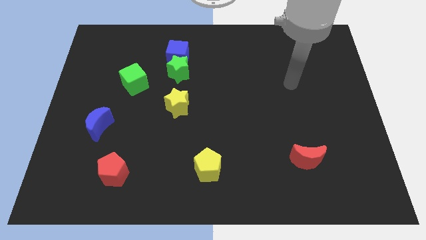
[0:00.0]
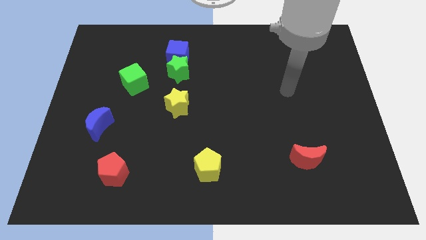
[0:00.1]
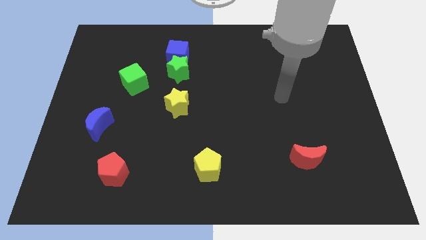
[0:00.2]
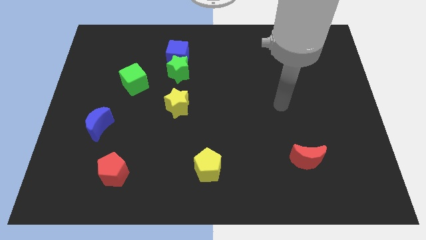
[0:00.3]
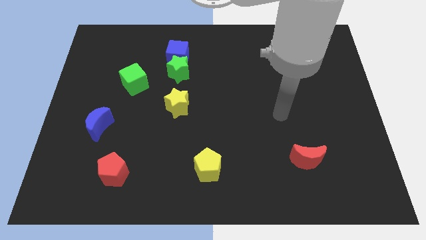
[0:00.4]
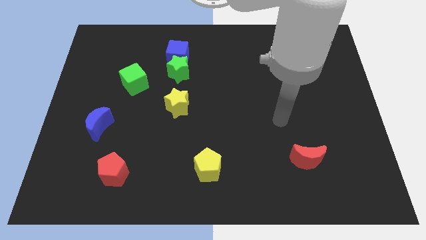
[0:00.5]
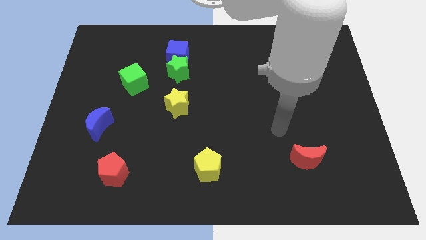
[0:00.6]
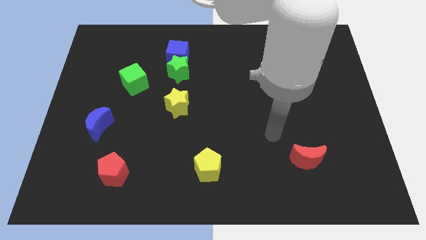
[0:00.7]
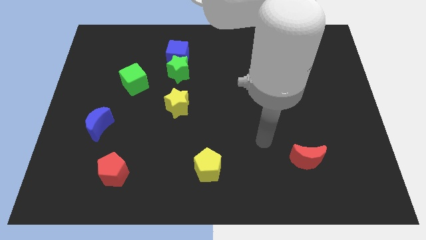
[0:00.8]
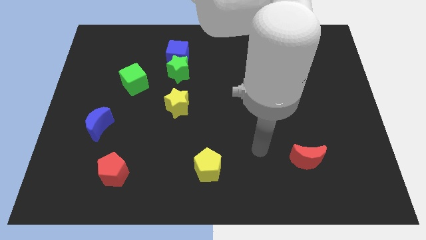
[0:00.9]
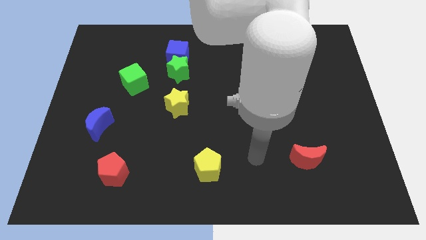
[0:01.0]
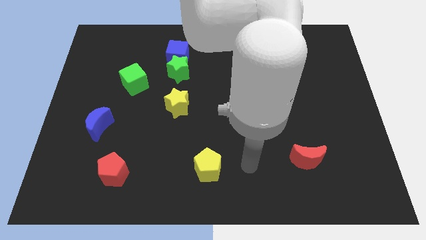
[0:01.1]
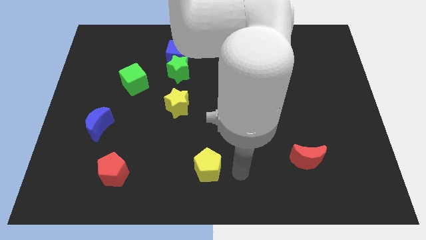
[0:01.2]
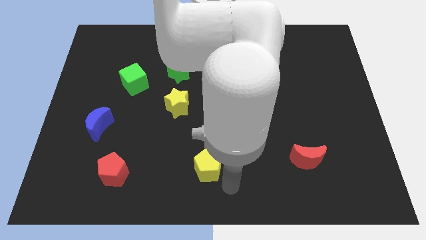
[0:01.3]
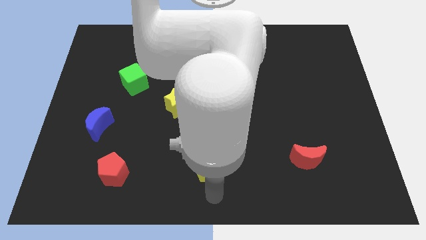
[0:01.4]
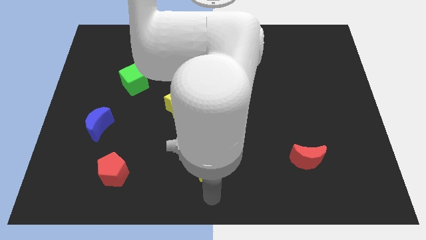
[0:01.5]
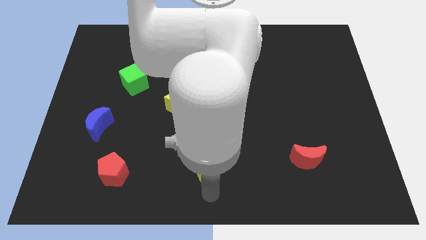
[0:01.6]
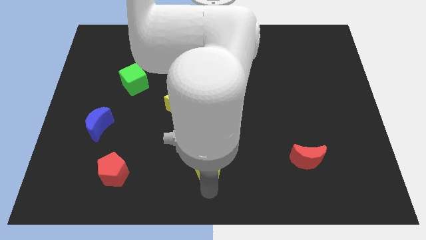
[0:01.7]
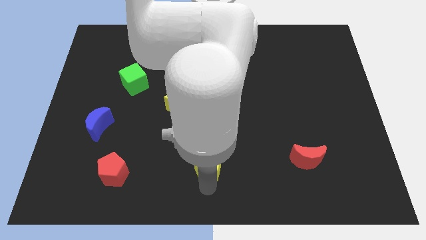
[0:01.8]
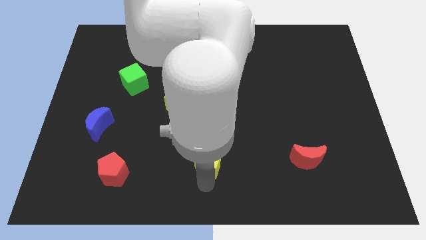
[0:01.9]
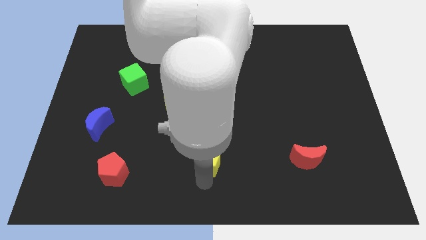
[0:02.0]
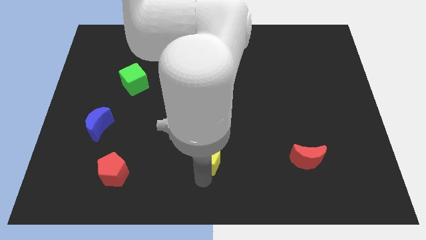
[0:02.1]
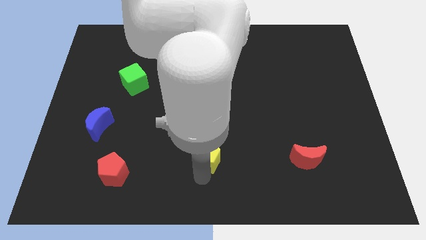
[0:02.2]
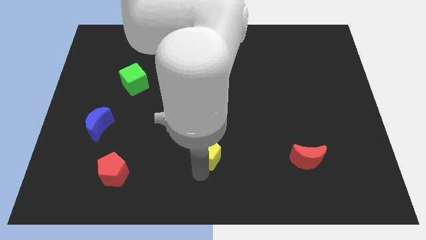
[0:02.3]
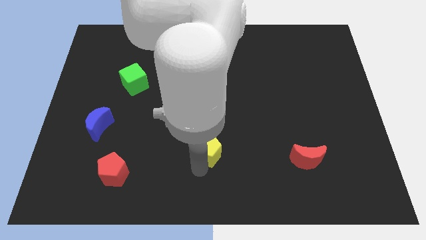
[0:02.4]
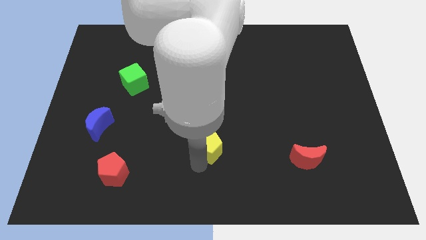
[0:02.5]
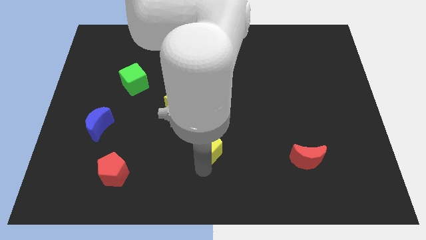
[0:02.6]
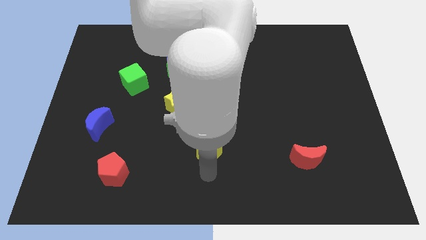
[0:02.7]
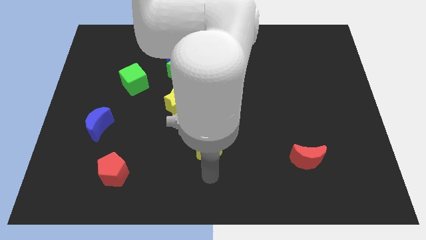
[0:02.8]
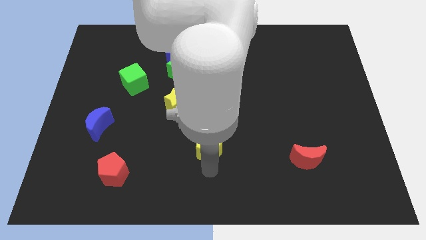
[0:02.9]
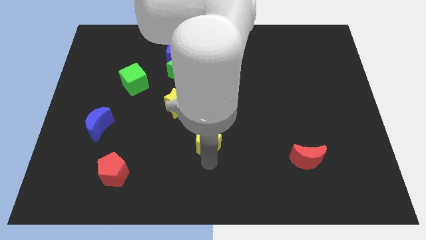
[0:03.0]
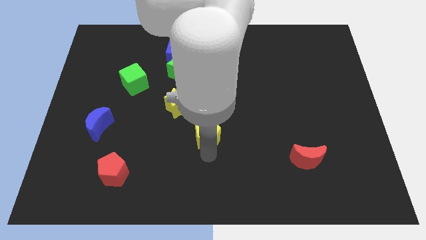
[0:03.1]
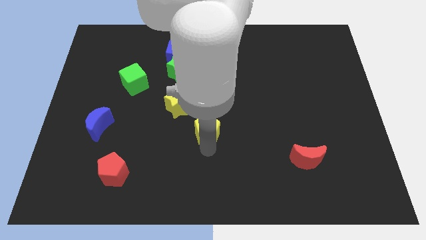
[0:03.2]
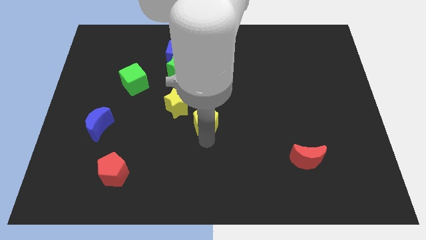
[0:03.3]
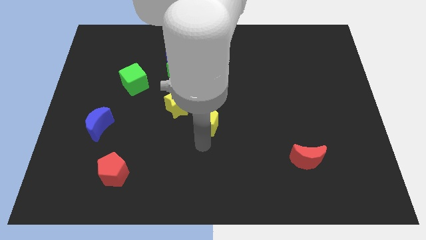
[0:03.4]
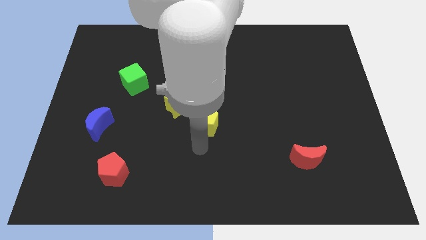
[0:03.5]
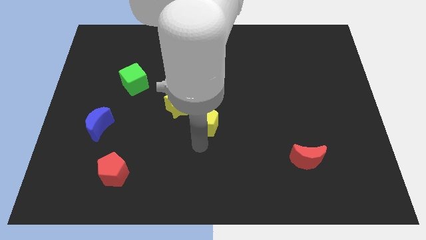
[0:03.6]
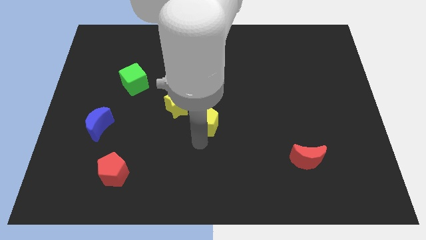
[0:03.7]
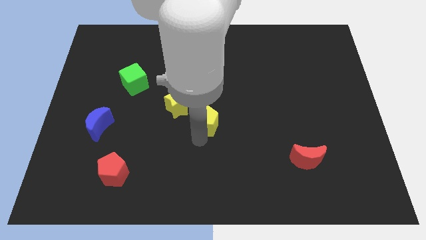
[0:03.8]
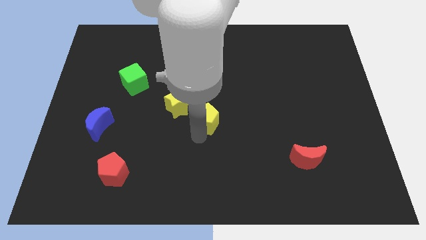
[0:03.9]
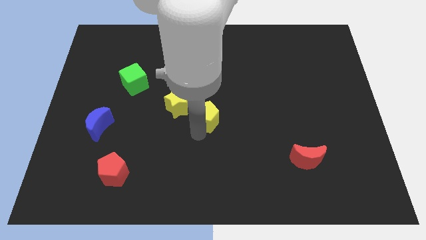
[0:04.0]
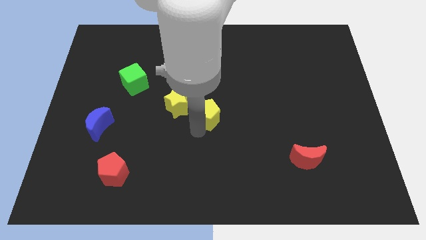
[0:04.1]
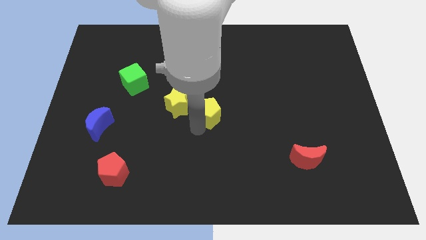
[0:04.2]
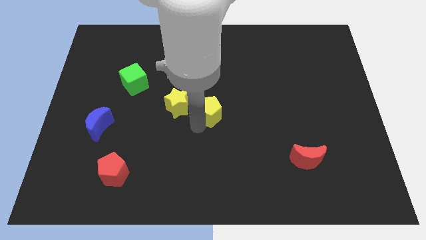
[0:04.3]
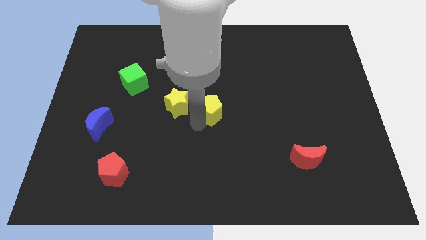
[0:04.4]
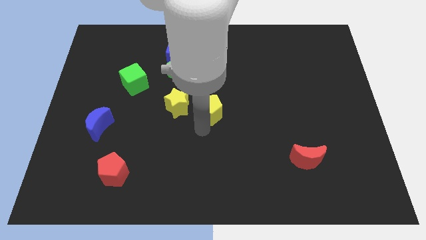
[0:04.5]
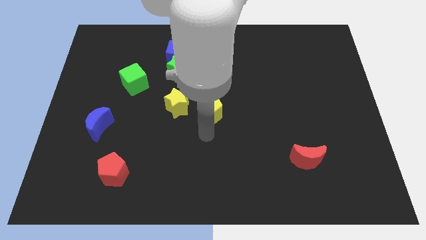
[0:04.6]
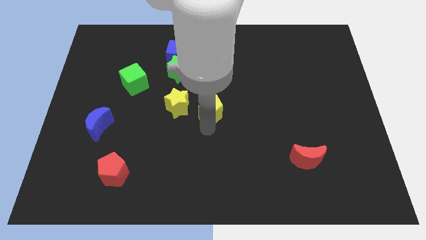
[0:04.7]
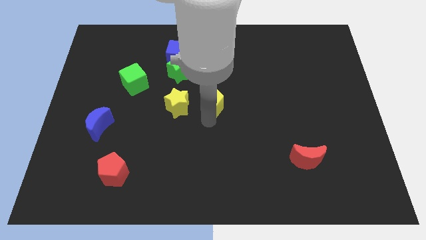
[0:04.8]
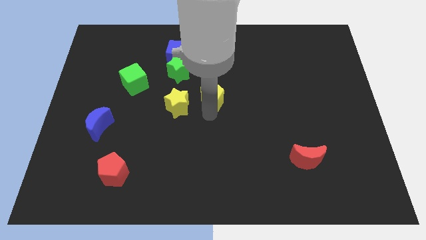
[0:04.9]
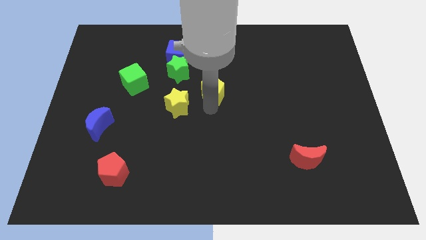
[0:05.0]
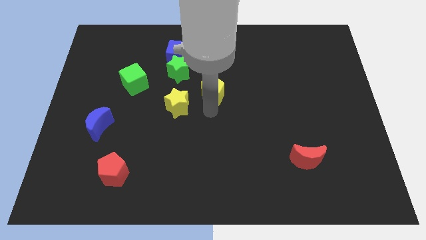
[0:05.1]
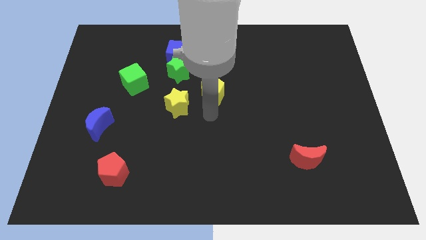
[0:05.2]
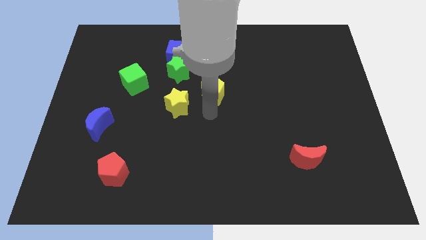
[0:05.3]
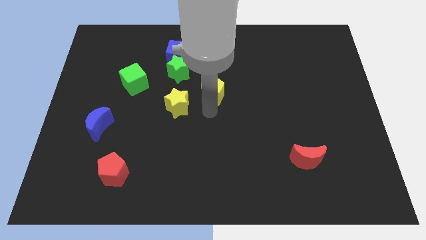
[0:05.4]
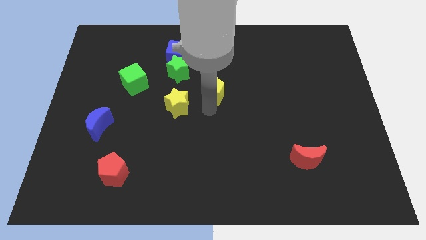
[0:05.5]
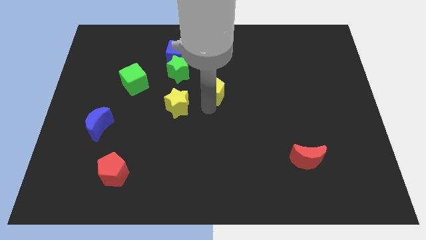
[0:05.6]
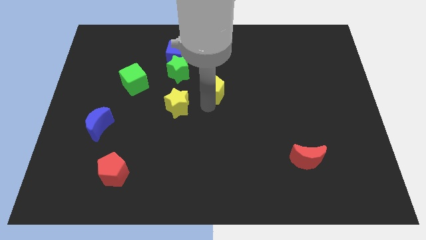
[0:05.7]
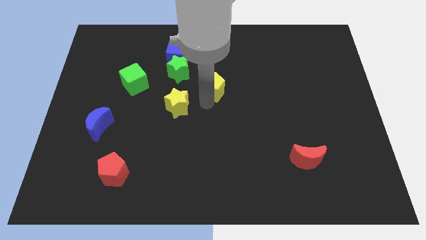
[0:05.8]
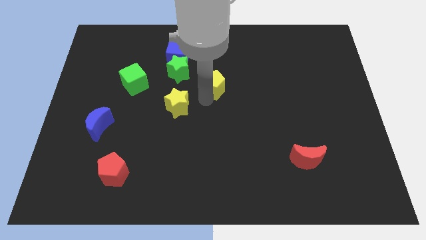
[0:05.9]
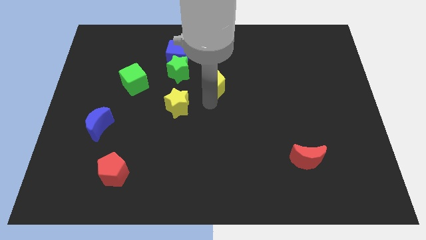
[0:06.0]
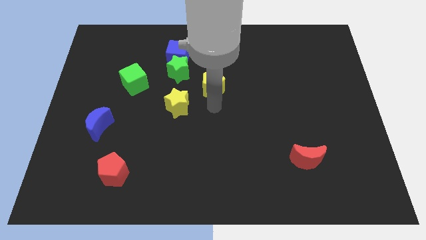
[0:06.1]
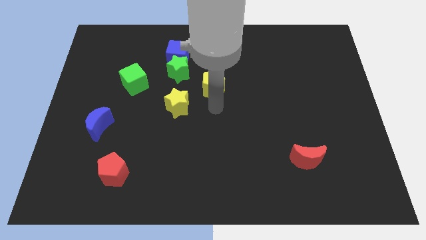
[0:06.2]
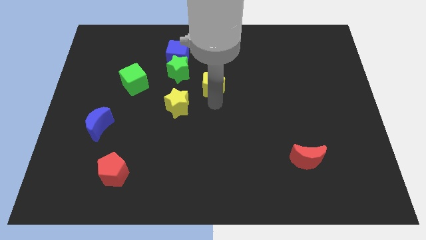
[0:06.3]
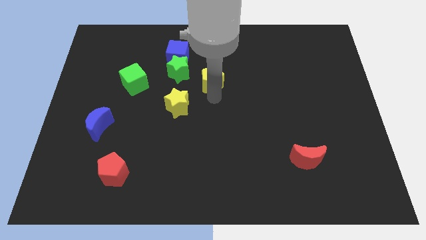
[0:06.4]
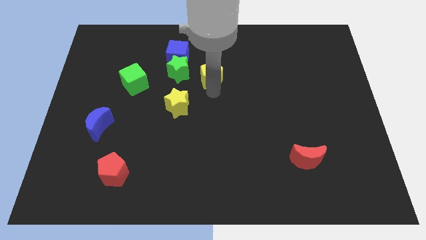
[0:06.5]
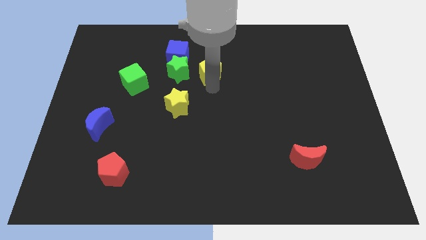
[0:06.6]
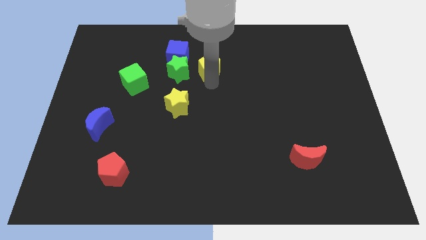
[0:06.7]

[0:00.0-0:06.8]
push the yellow pentagon to the top right side of the green star
